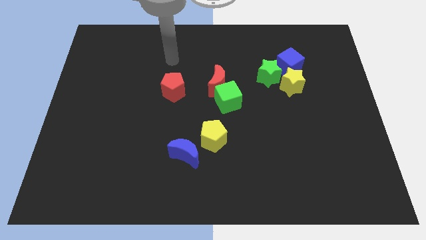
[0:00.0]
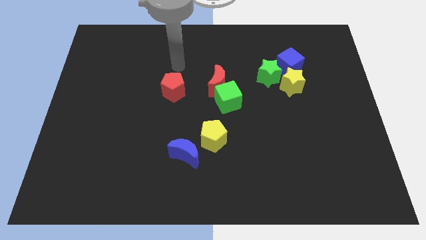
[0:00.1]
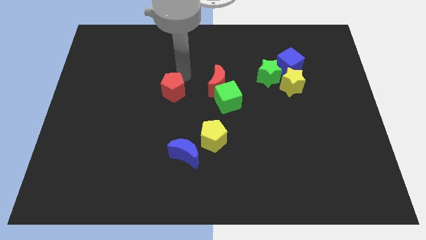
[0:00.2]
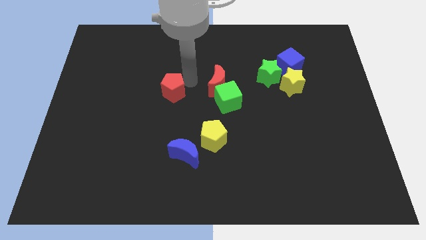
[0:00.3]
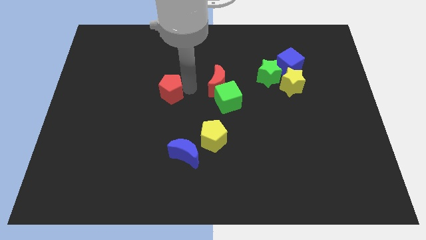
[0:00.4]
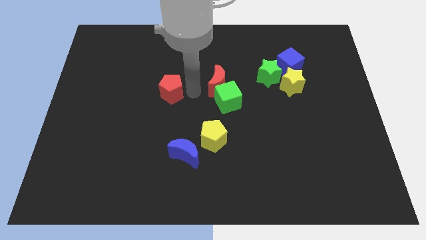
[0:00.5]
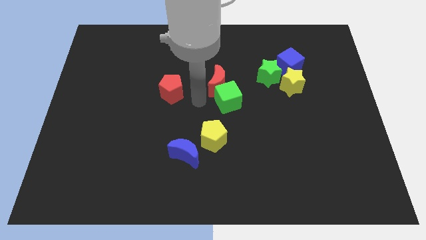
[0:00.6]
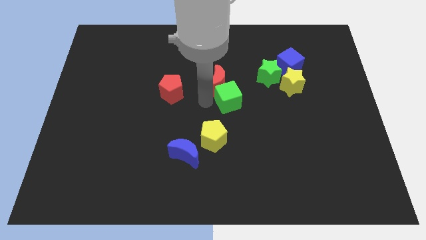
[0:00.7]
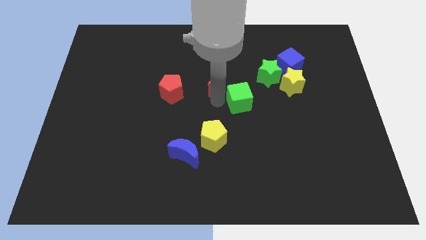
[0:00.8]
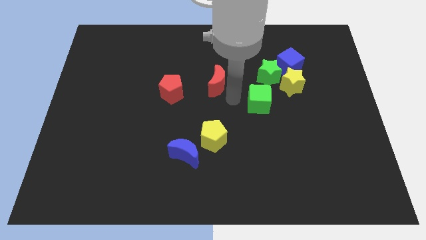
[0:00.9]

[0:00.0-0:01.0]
pull the red moon apart from the green cube

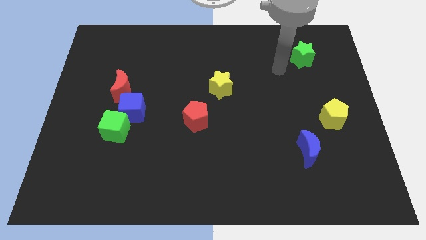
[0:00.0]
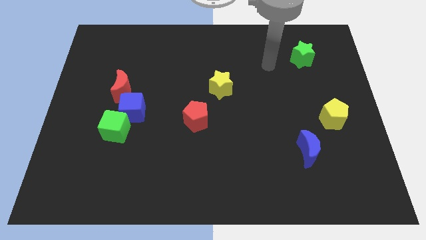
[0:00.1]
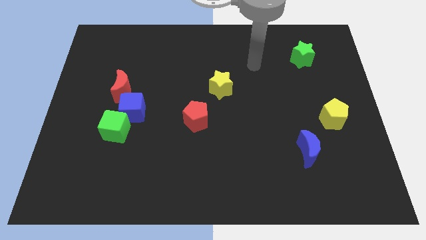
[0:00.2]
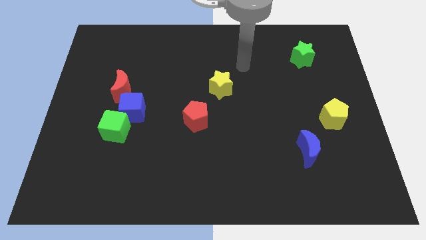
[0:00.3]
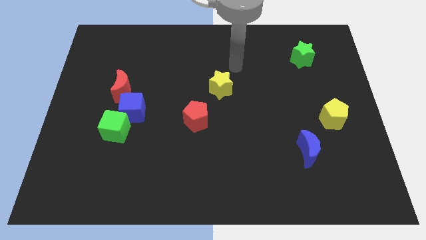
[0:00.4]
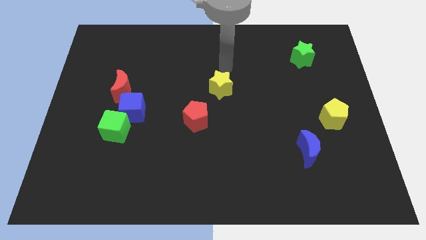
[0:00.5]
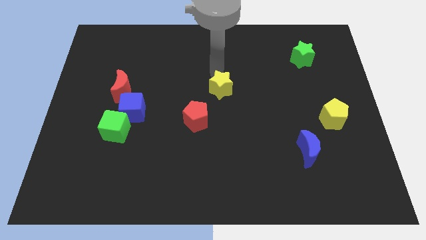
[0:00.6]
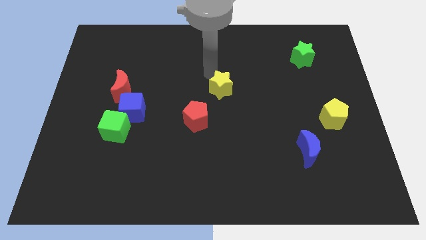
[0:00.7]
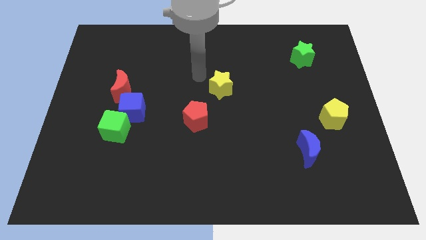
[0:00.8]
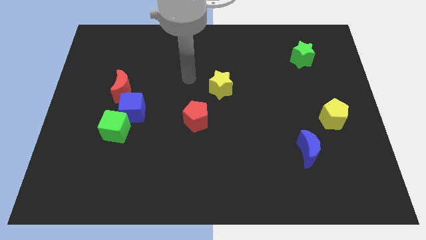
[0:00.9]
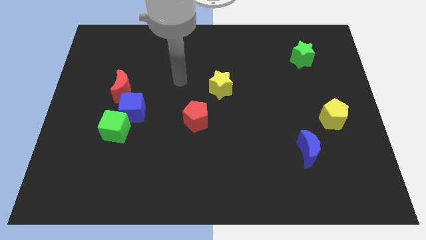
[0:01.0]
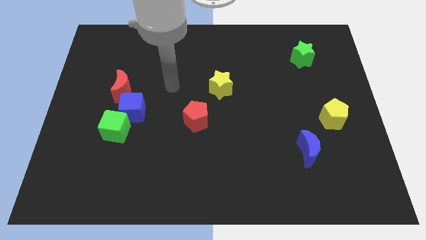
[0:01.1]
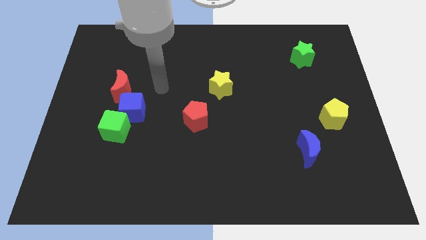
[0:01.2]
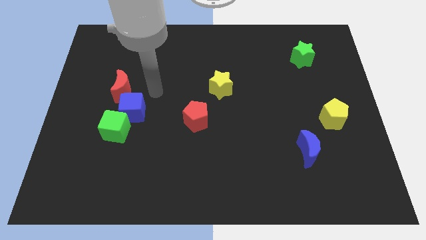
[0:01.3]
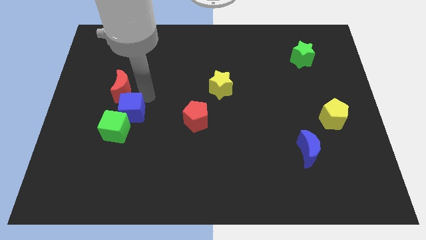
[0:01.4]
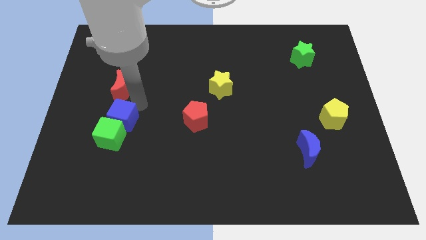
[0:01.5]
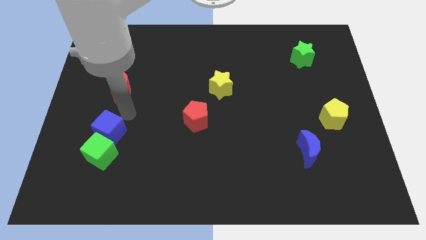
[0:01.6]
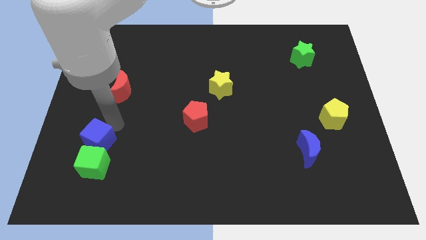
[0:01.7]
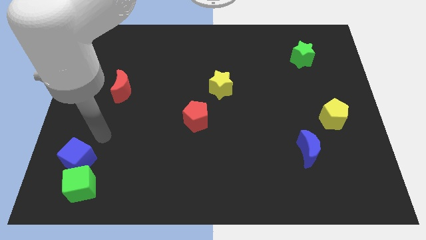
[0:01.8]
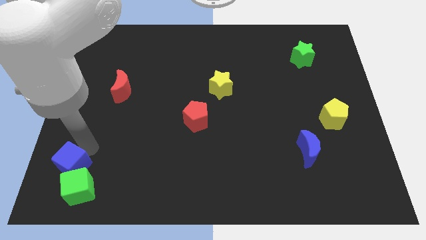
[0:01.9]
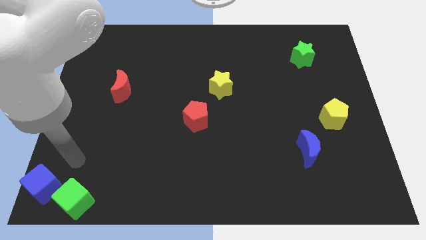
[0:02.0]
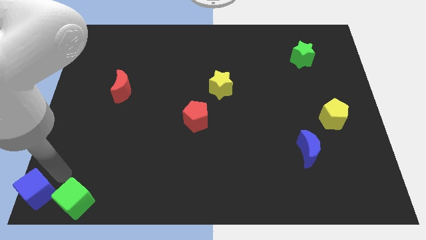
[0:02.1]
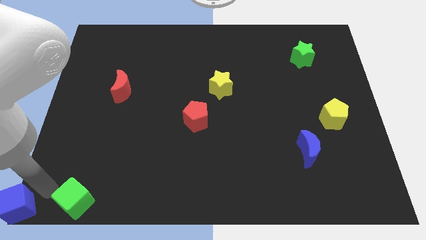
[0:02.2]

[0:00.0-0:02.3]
pull the green cube apart from the blue cube

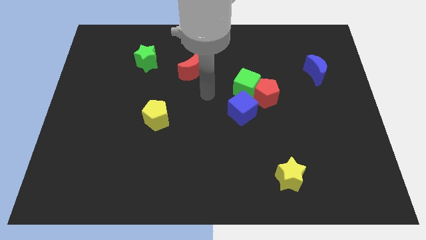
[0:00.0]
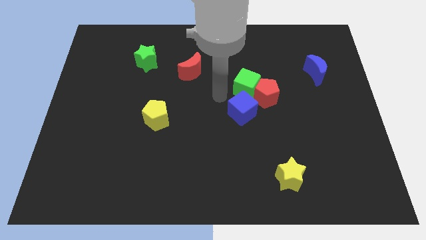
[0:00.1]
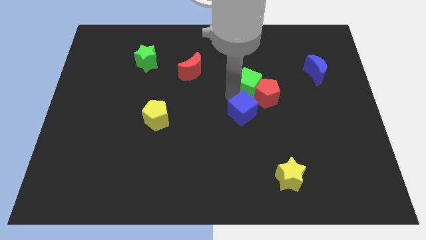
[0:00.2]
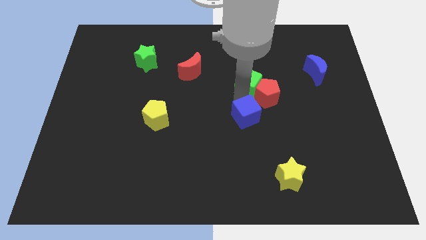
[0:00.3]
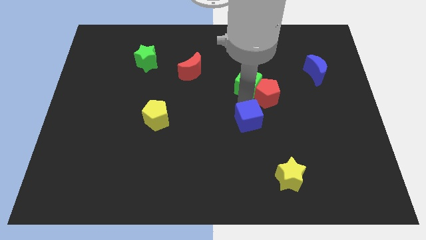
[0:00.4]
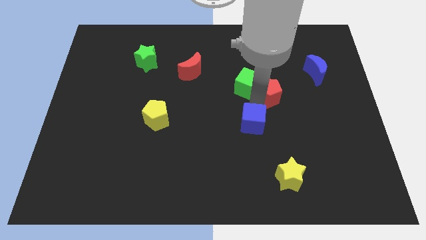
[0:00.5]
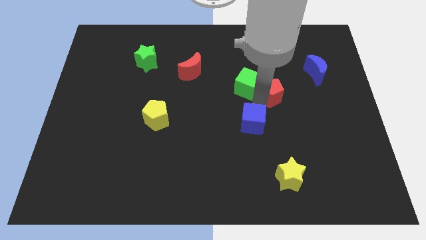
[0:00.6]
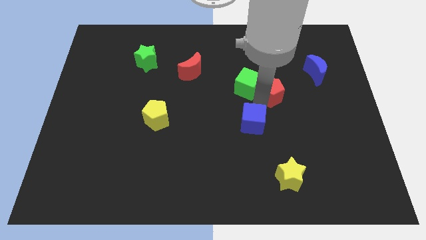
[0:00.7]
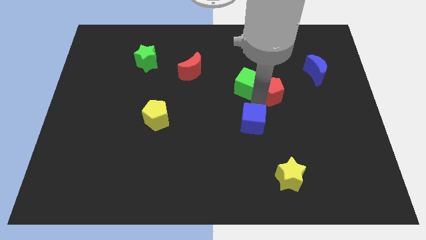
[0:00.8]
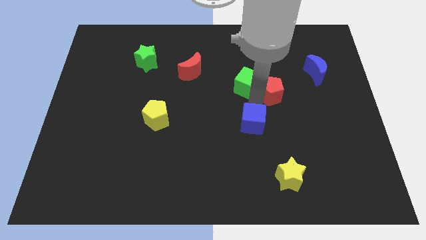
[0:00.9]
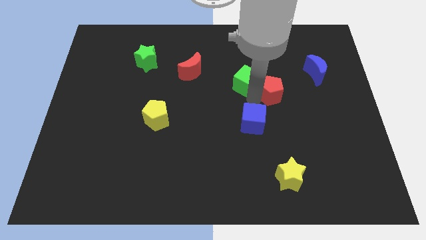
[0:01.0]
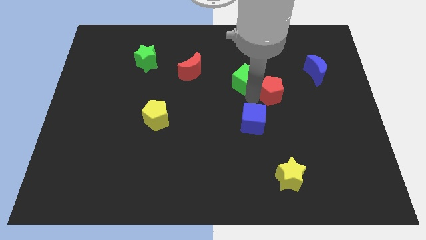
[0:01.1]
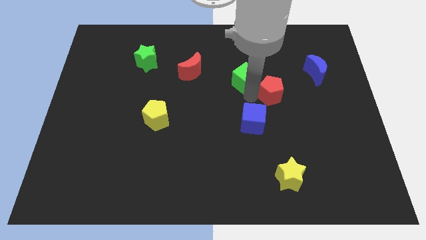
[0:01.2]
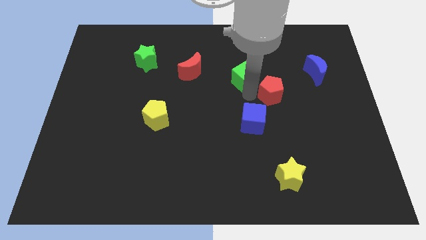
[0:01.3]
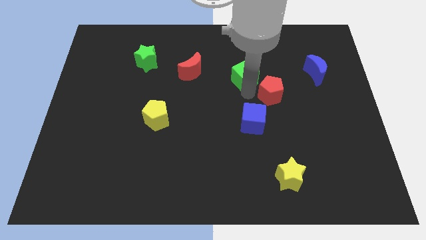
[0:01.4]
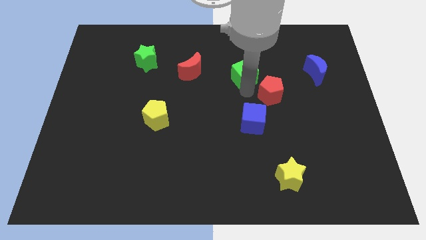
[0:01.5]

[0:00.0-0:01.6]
separate the green cube from the red pentagon and blue cube

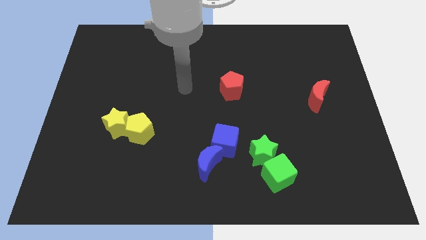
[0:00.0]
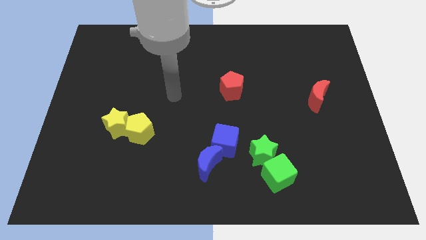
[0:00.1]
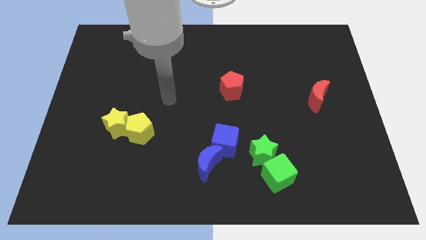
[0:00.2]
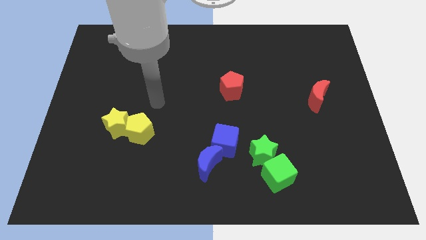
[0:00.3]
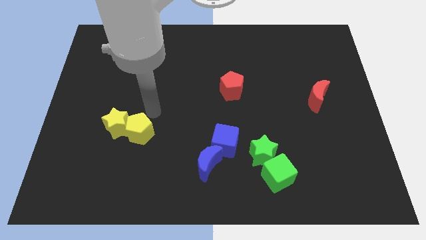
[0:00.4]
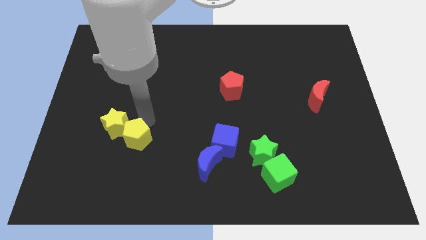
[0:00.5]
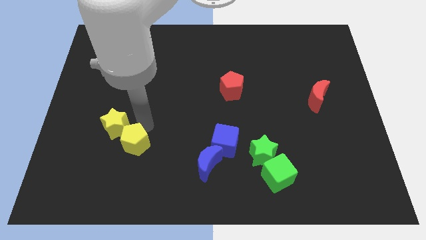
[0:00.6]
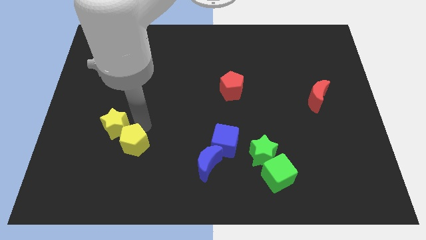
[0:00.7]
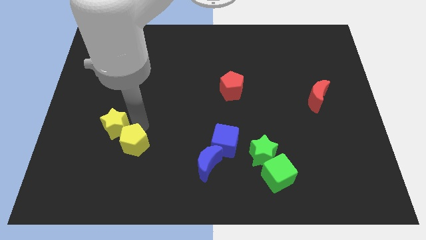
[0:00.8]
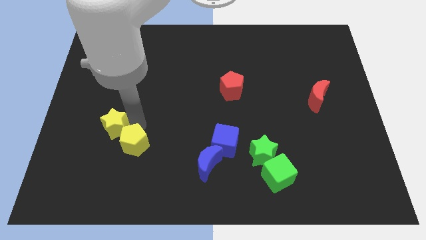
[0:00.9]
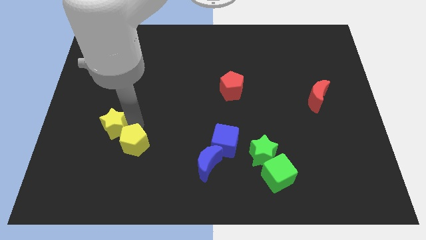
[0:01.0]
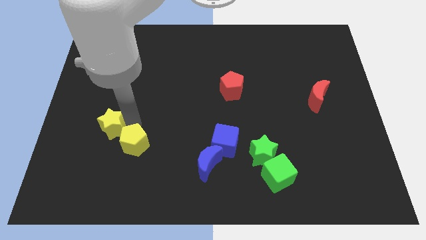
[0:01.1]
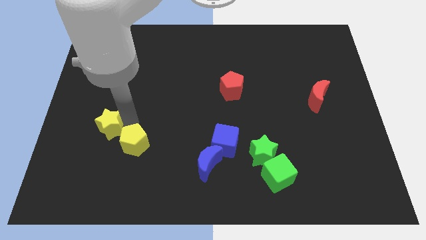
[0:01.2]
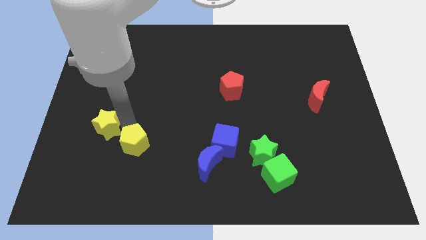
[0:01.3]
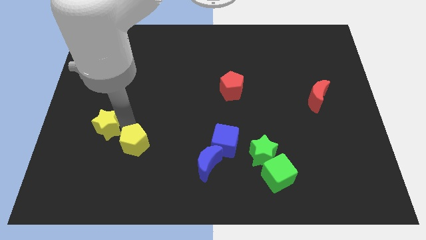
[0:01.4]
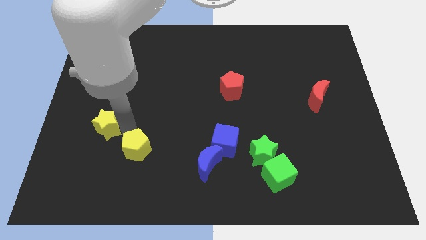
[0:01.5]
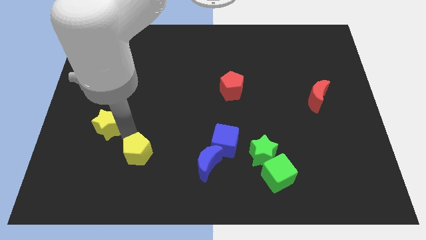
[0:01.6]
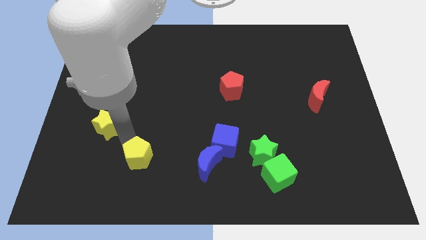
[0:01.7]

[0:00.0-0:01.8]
pull the yellow star apart from the yellow pentagon

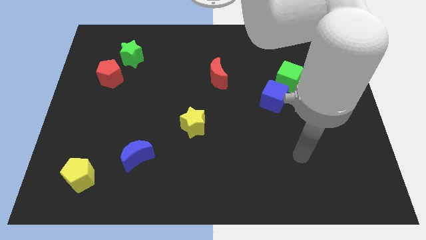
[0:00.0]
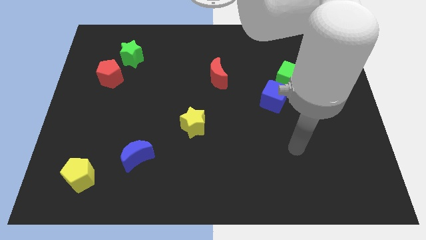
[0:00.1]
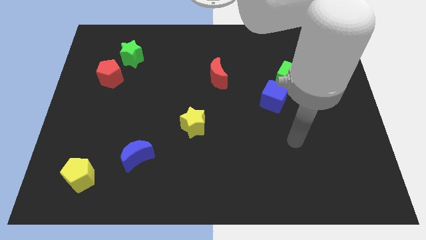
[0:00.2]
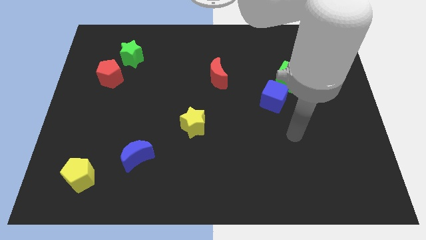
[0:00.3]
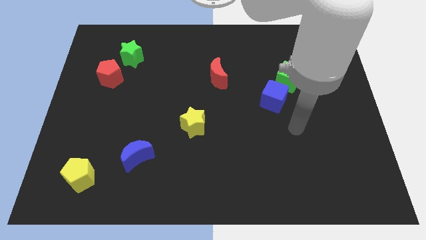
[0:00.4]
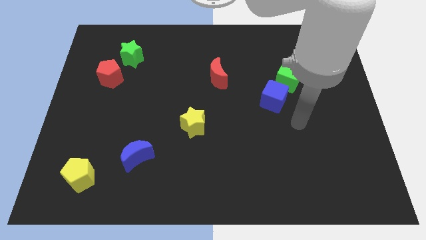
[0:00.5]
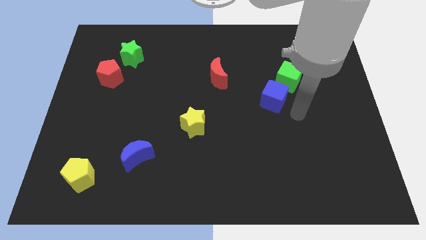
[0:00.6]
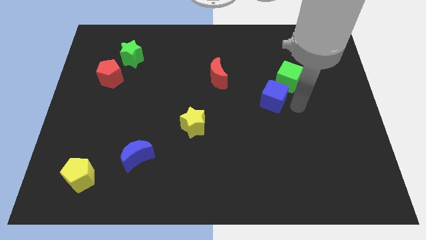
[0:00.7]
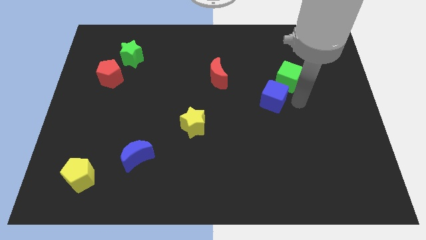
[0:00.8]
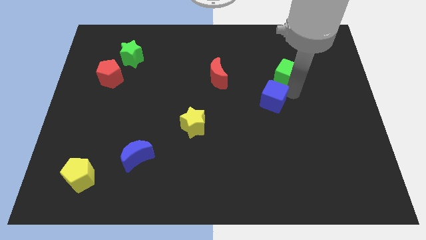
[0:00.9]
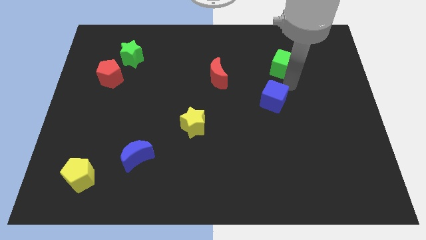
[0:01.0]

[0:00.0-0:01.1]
move the blue cube away from the green cube

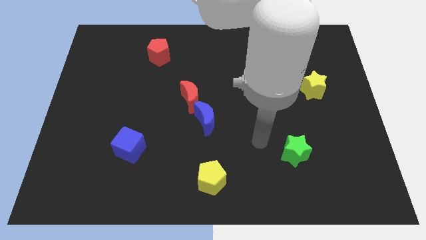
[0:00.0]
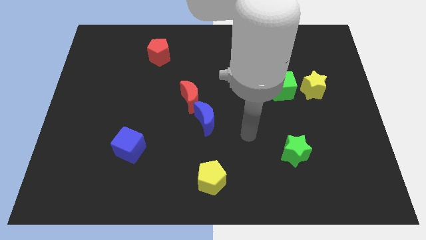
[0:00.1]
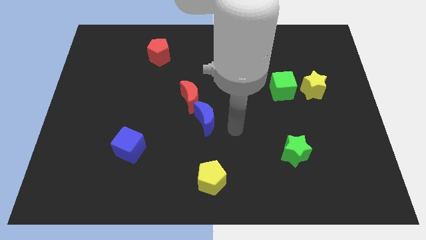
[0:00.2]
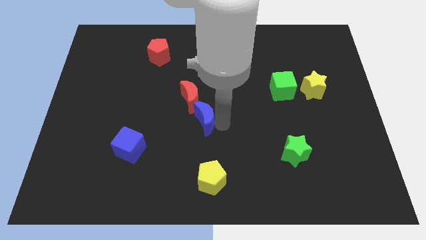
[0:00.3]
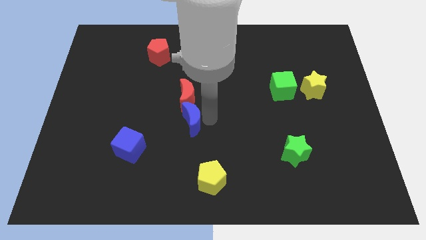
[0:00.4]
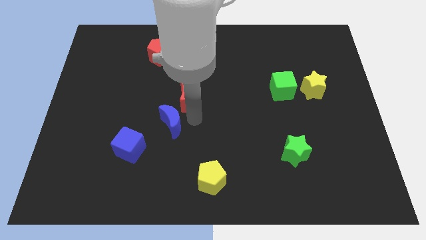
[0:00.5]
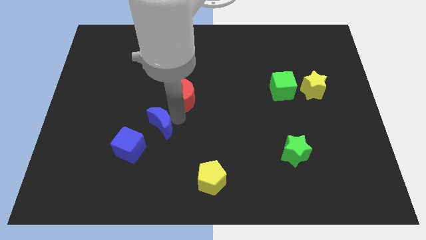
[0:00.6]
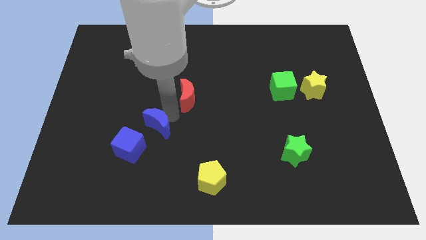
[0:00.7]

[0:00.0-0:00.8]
separate the red moon from the blue moon

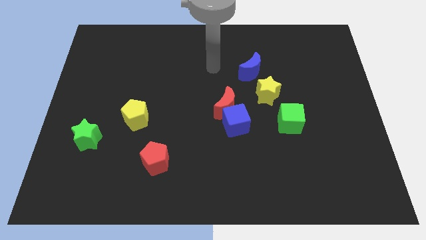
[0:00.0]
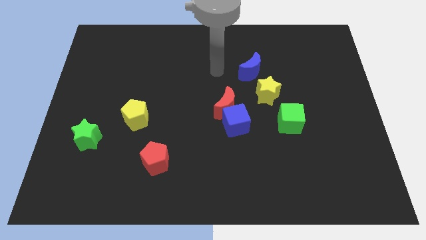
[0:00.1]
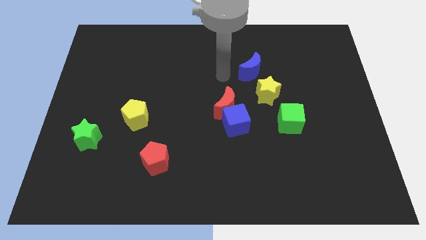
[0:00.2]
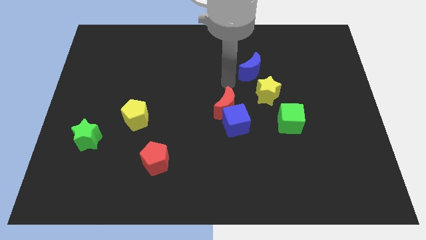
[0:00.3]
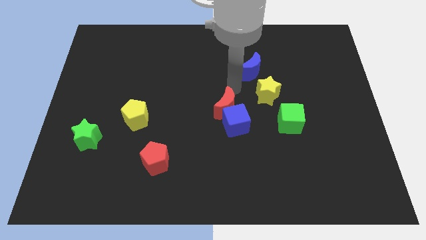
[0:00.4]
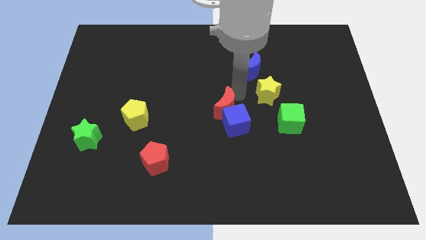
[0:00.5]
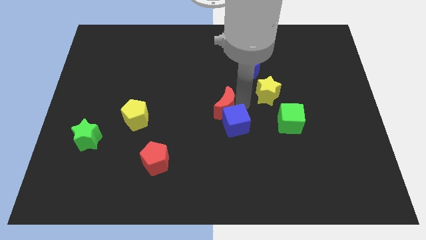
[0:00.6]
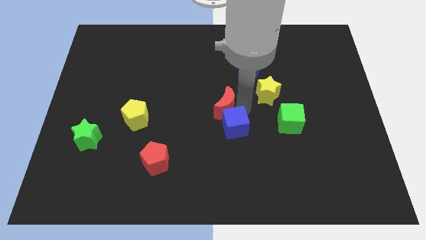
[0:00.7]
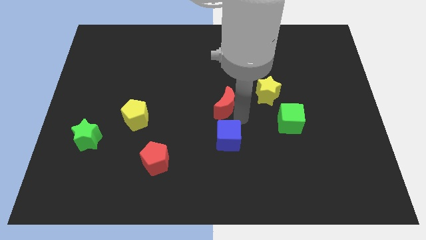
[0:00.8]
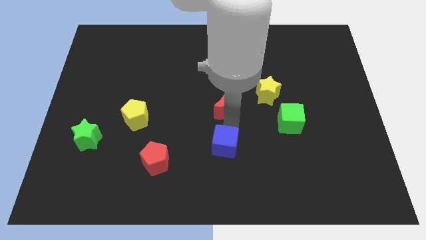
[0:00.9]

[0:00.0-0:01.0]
pull the red moon apart from the blue cube
